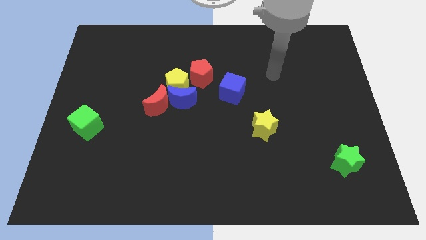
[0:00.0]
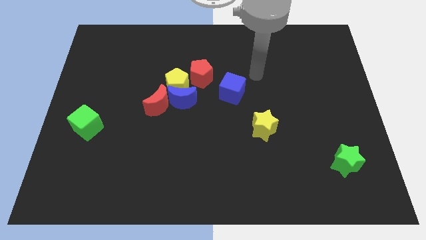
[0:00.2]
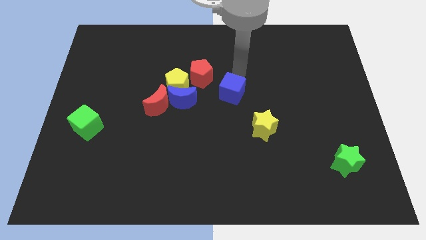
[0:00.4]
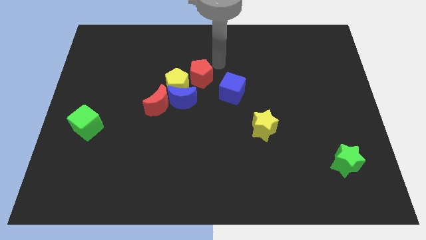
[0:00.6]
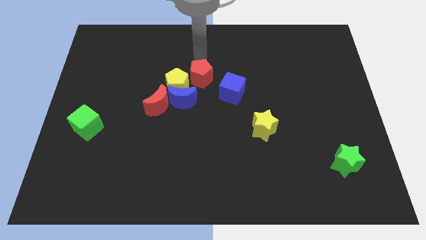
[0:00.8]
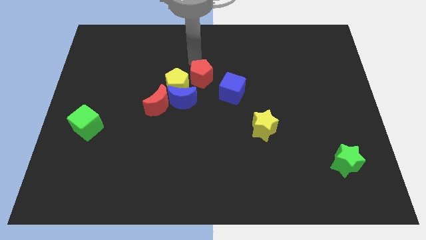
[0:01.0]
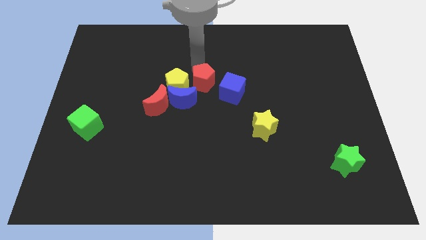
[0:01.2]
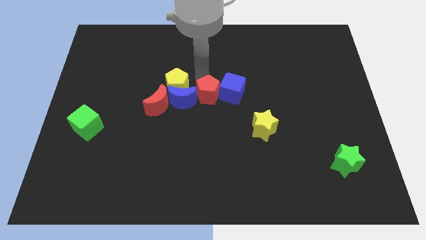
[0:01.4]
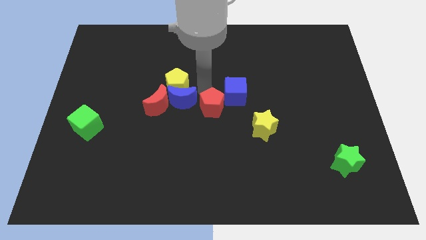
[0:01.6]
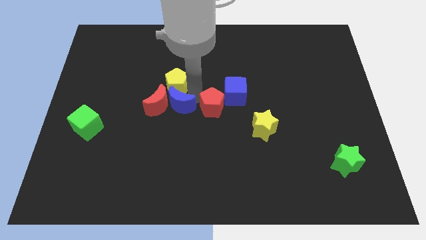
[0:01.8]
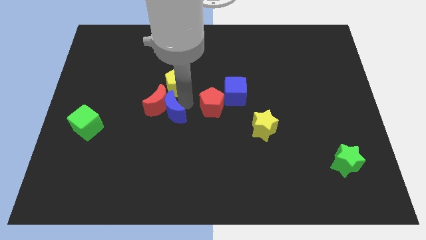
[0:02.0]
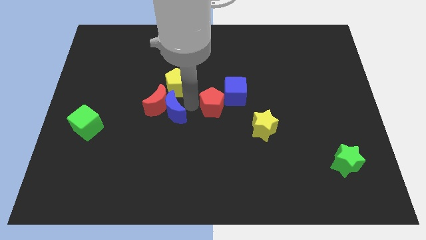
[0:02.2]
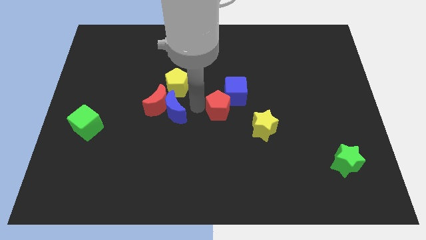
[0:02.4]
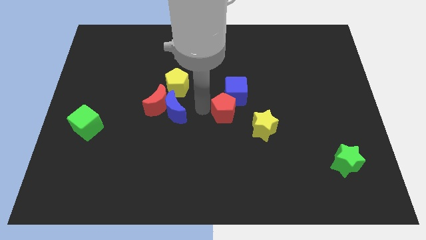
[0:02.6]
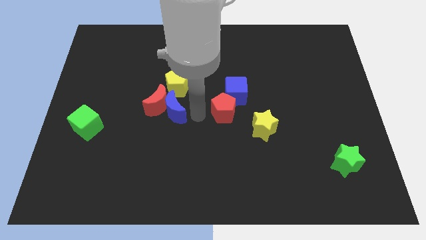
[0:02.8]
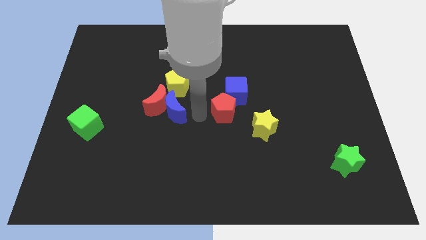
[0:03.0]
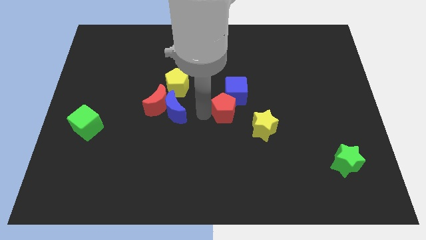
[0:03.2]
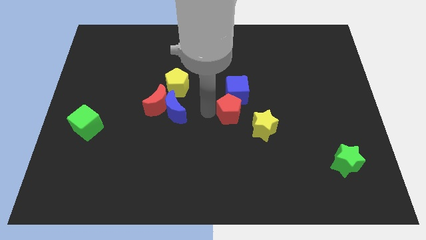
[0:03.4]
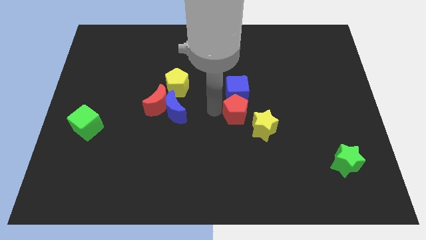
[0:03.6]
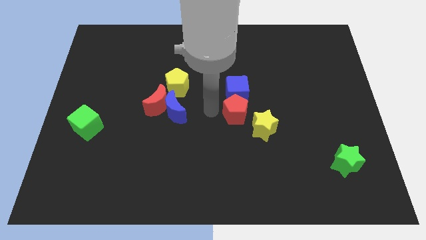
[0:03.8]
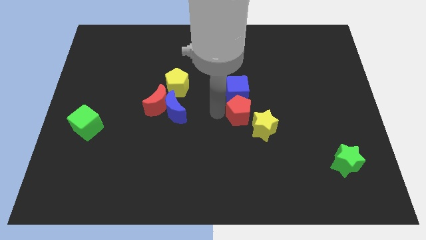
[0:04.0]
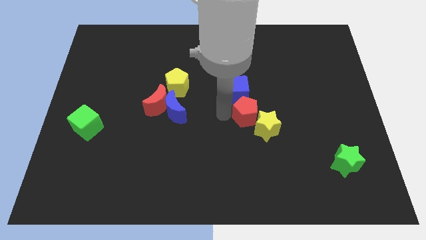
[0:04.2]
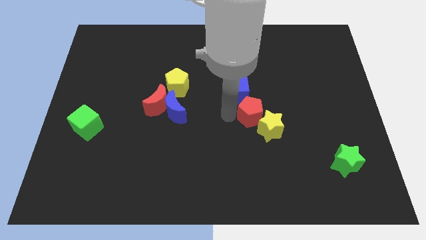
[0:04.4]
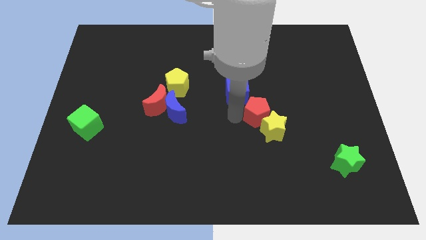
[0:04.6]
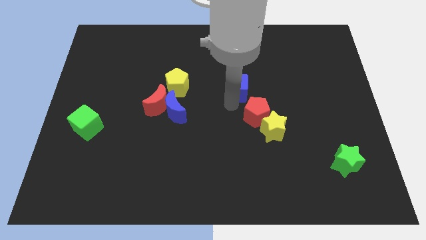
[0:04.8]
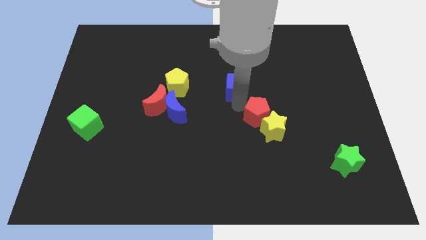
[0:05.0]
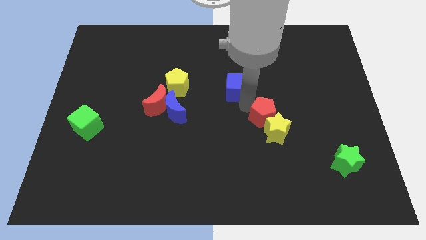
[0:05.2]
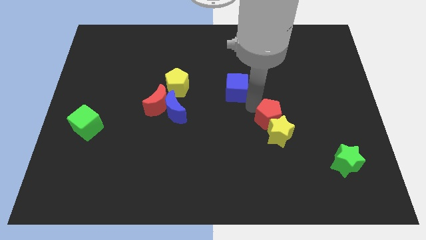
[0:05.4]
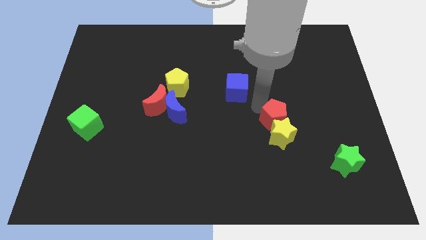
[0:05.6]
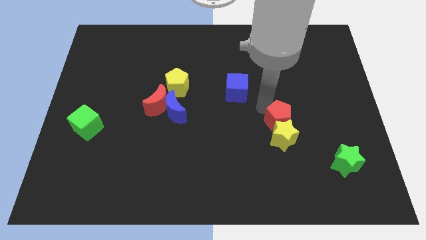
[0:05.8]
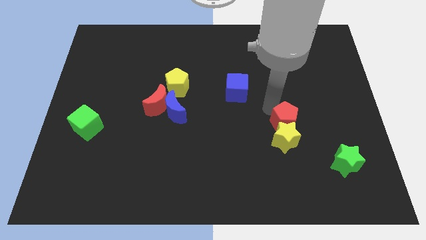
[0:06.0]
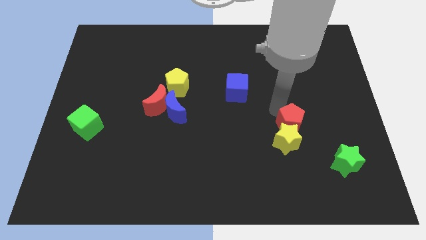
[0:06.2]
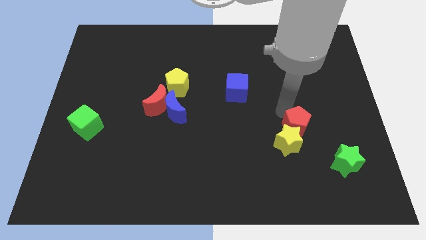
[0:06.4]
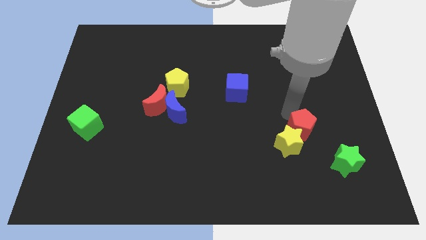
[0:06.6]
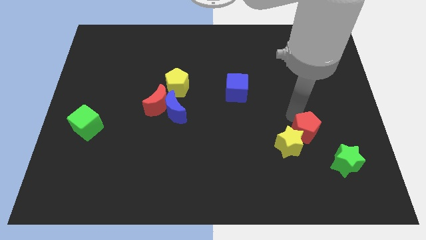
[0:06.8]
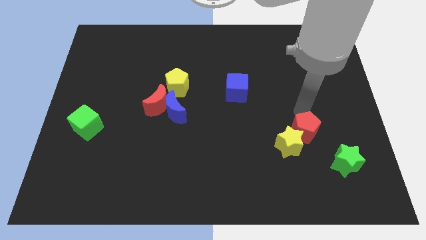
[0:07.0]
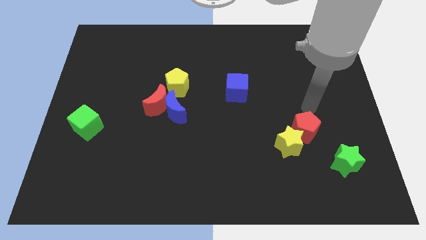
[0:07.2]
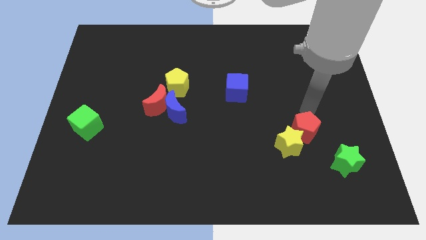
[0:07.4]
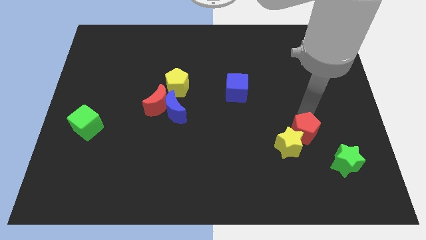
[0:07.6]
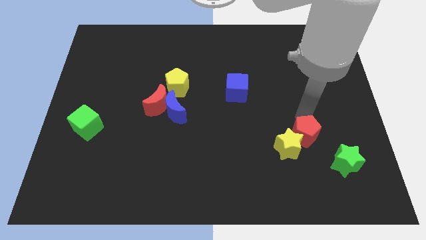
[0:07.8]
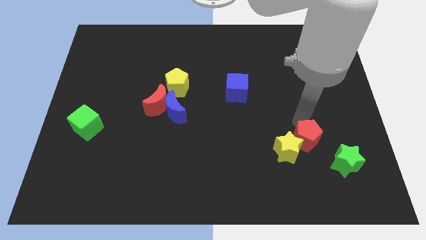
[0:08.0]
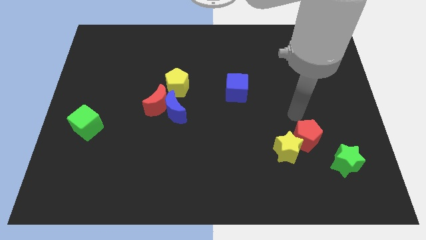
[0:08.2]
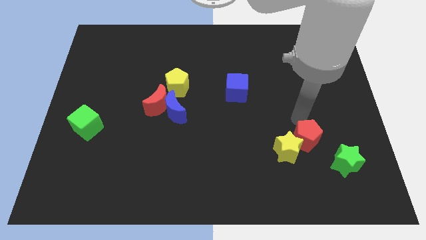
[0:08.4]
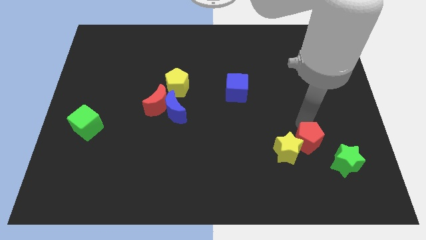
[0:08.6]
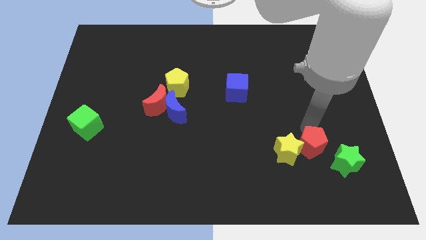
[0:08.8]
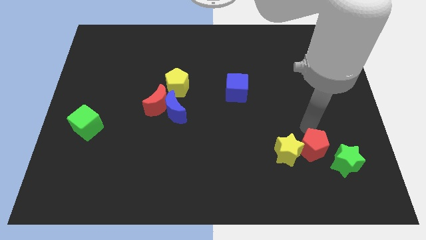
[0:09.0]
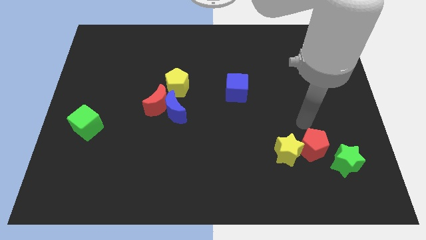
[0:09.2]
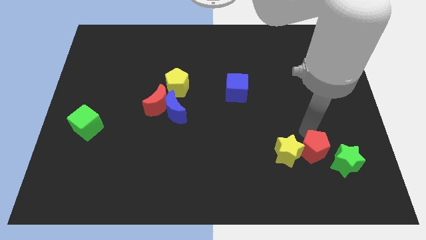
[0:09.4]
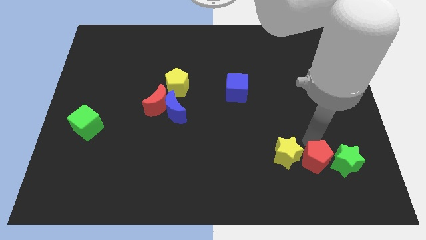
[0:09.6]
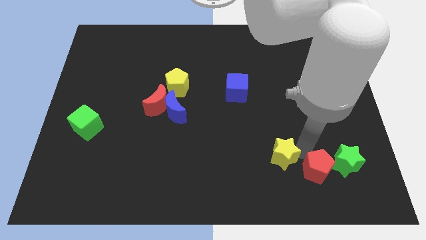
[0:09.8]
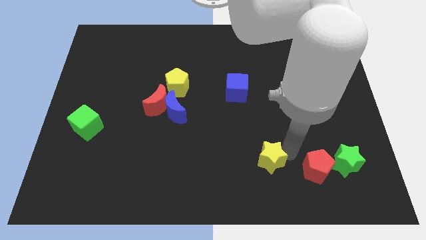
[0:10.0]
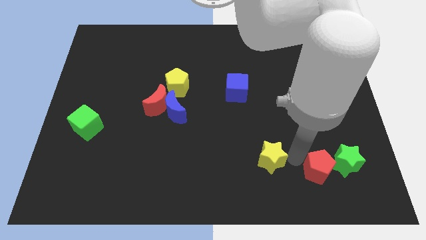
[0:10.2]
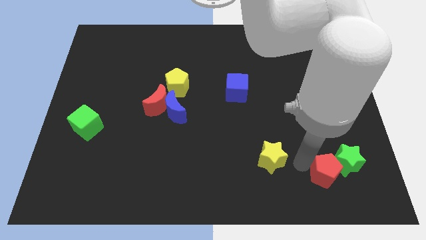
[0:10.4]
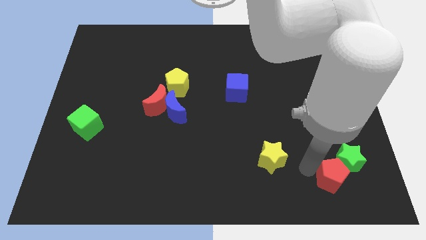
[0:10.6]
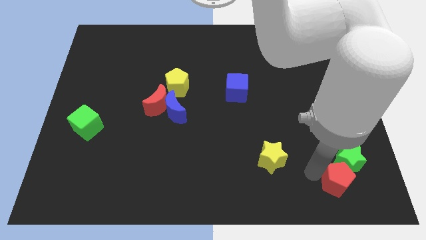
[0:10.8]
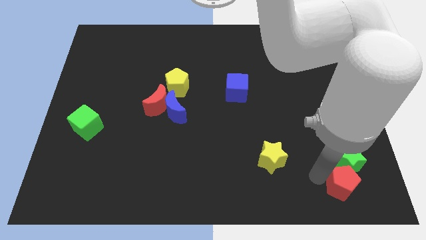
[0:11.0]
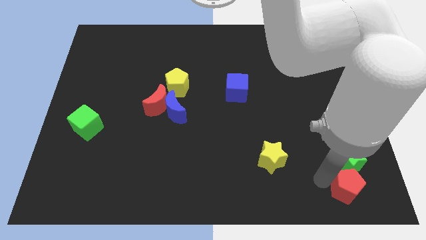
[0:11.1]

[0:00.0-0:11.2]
slide the red pentagon to the bottom right corner
